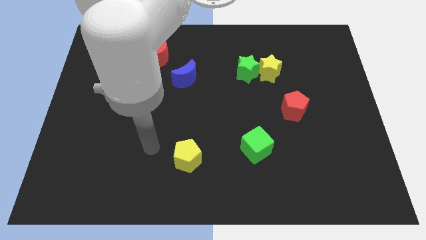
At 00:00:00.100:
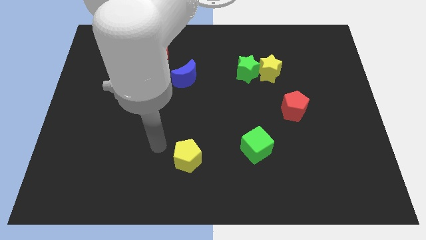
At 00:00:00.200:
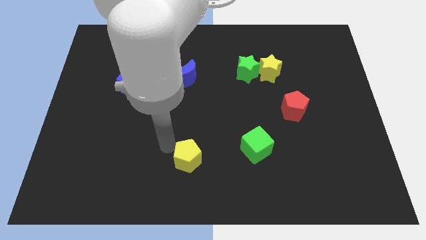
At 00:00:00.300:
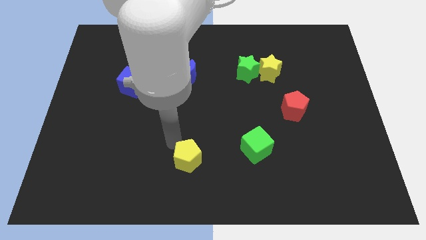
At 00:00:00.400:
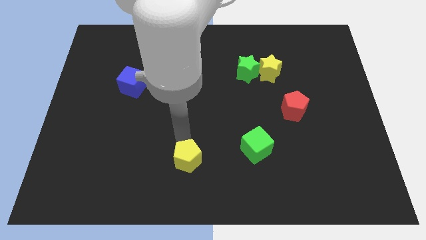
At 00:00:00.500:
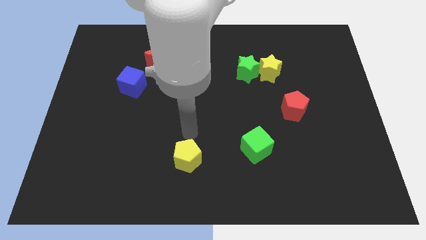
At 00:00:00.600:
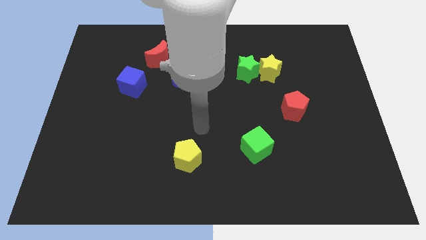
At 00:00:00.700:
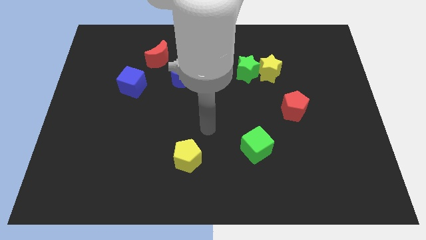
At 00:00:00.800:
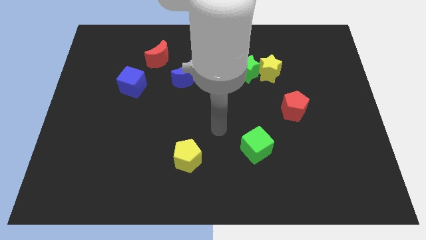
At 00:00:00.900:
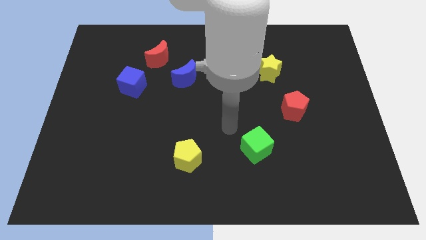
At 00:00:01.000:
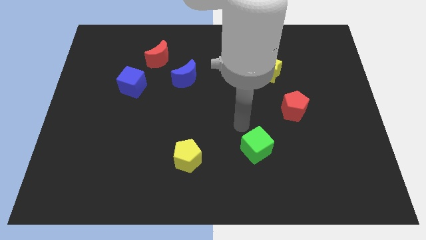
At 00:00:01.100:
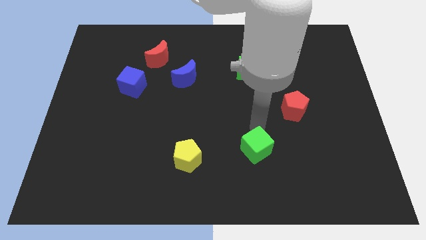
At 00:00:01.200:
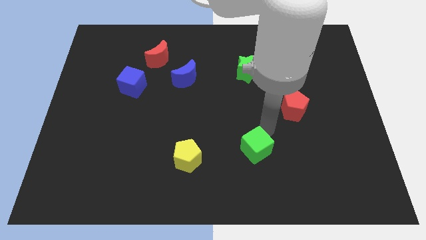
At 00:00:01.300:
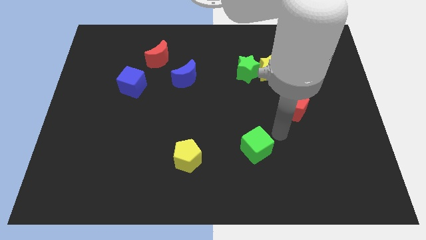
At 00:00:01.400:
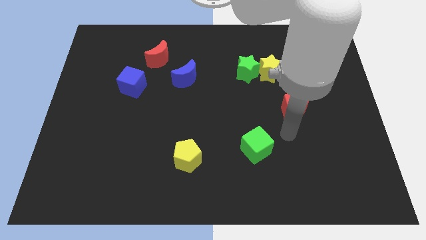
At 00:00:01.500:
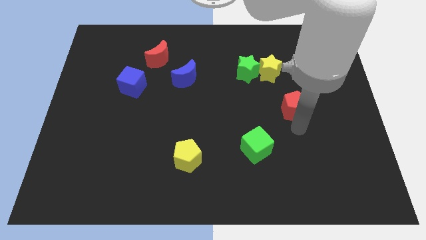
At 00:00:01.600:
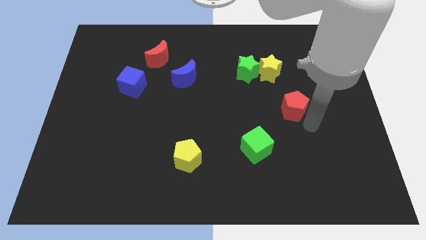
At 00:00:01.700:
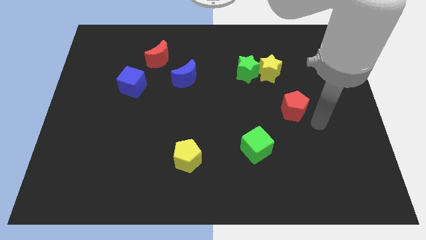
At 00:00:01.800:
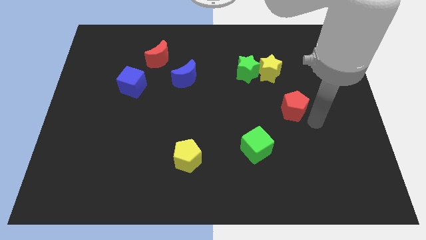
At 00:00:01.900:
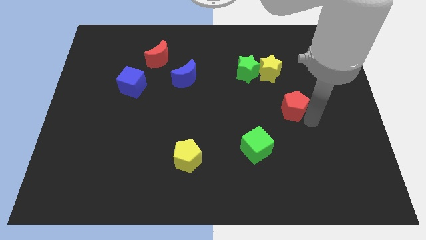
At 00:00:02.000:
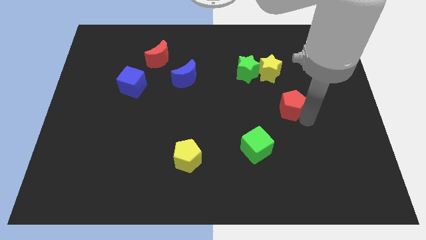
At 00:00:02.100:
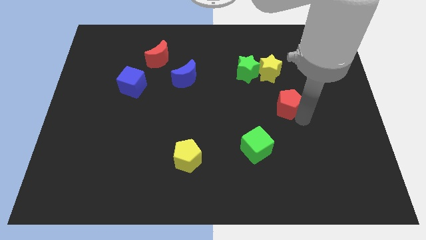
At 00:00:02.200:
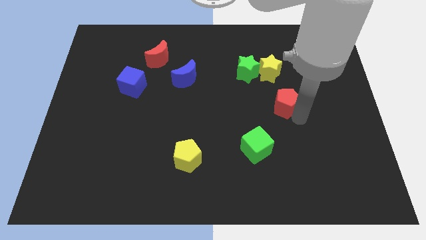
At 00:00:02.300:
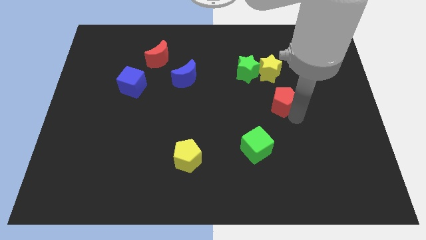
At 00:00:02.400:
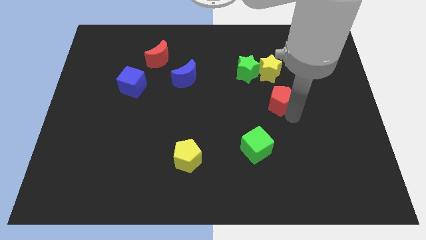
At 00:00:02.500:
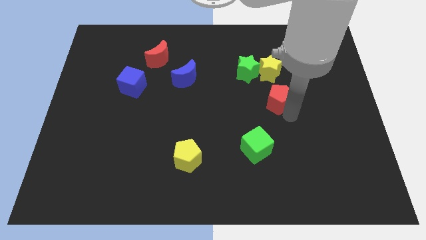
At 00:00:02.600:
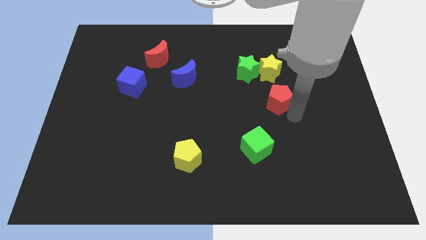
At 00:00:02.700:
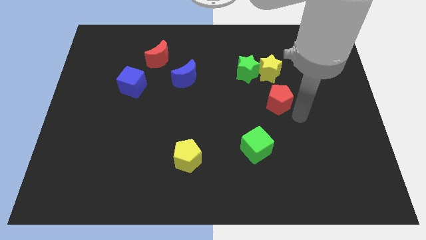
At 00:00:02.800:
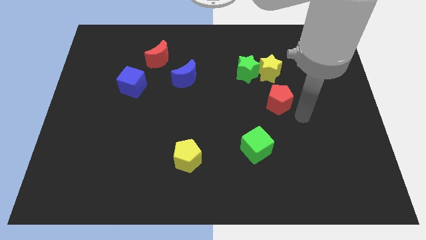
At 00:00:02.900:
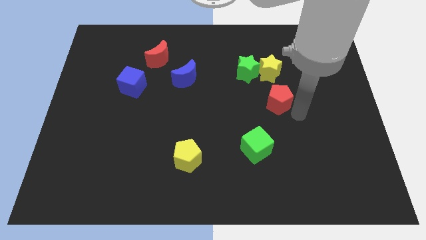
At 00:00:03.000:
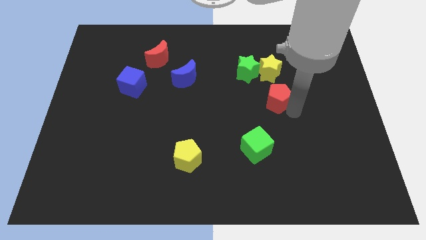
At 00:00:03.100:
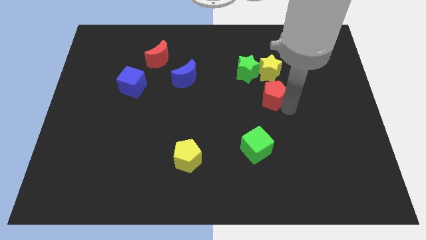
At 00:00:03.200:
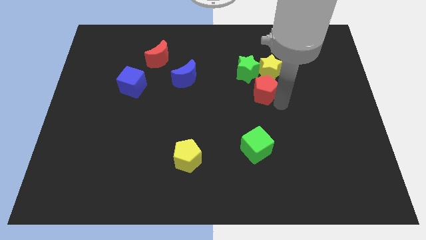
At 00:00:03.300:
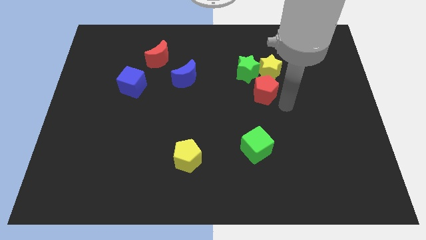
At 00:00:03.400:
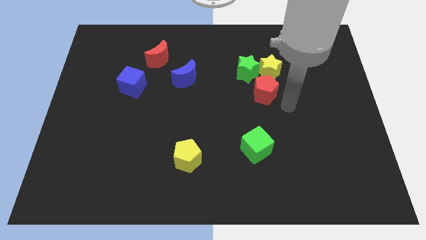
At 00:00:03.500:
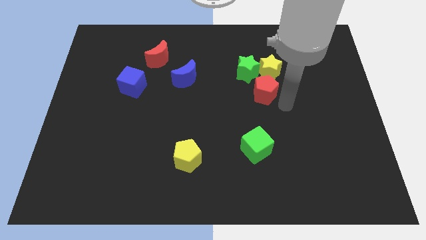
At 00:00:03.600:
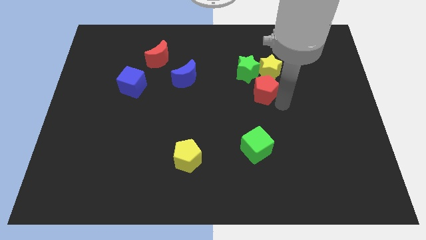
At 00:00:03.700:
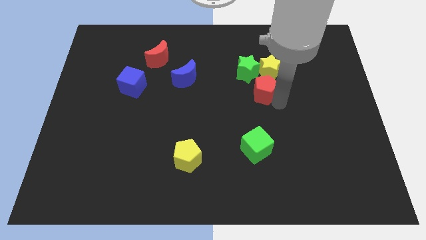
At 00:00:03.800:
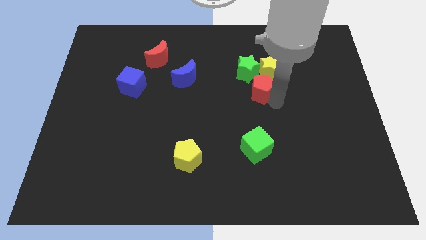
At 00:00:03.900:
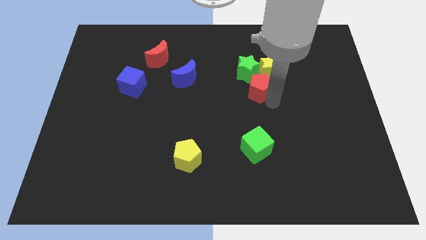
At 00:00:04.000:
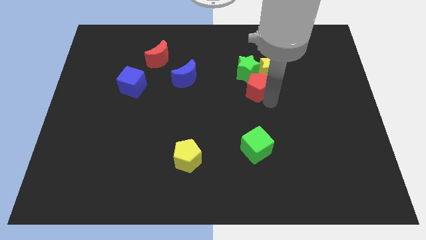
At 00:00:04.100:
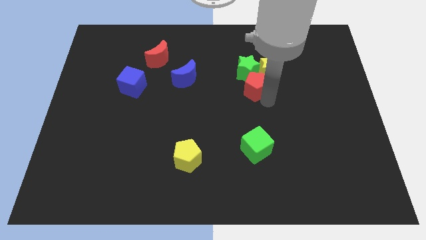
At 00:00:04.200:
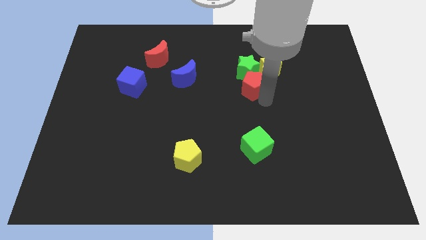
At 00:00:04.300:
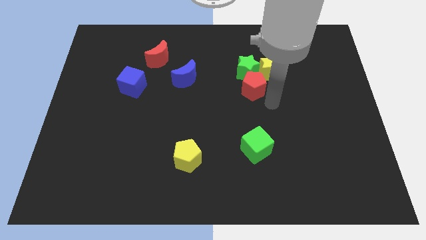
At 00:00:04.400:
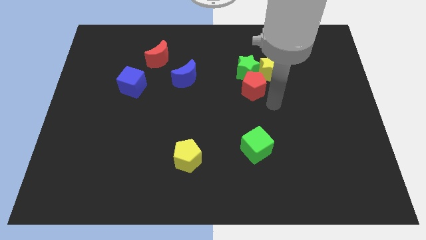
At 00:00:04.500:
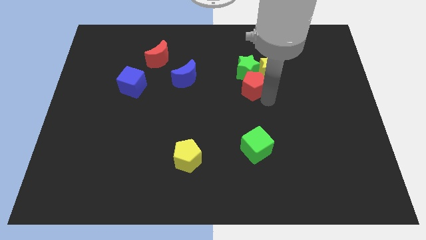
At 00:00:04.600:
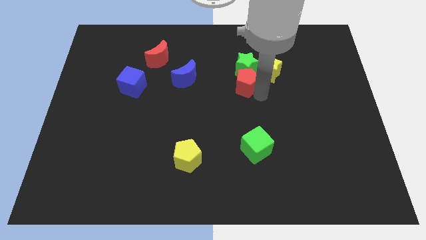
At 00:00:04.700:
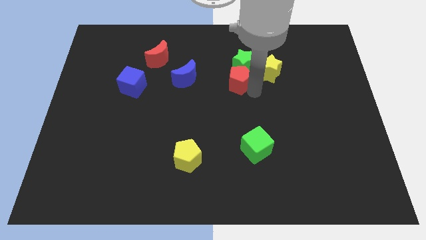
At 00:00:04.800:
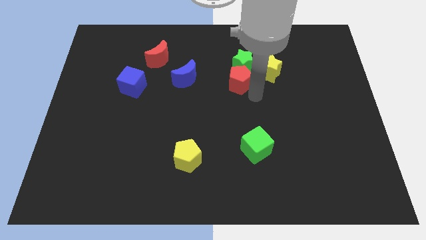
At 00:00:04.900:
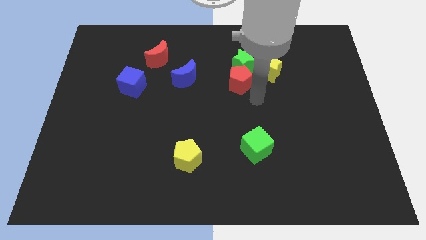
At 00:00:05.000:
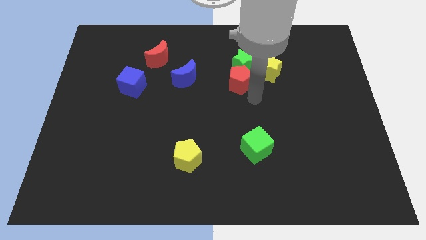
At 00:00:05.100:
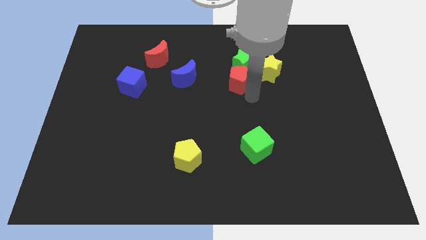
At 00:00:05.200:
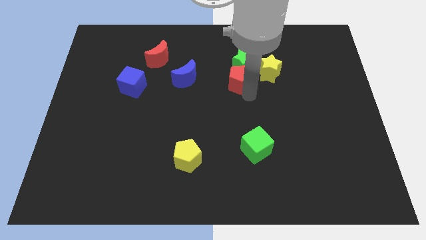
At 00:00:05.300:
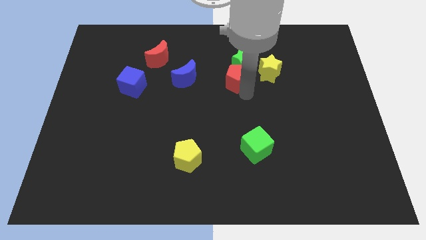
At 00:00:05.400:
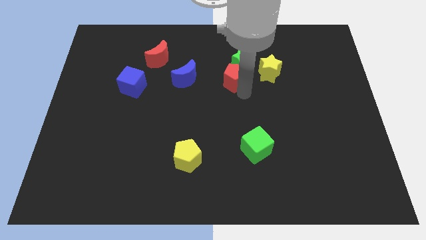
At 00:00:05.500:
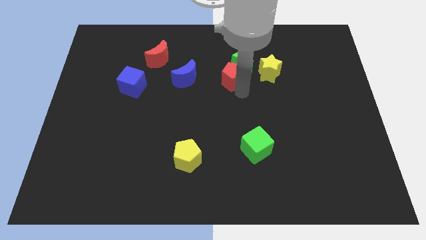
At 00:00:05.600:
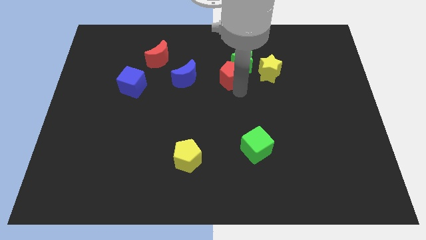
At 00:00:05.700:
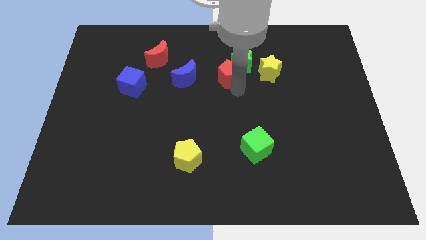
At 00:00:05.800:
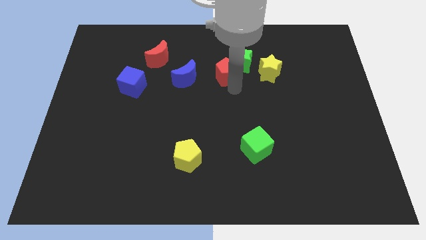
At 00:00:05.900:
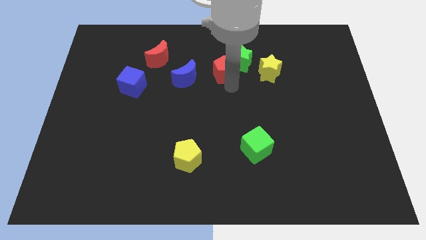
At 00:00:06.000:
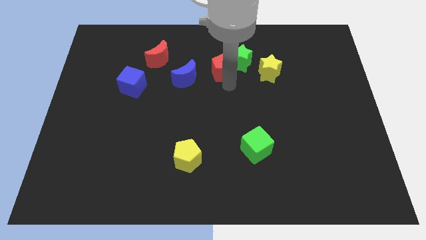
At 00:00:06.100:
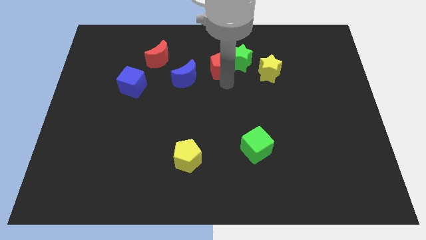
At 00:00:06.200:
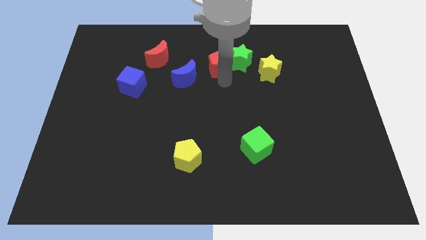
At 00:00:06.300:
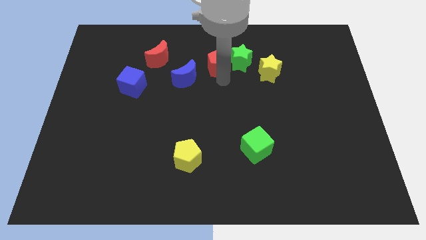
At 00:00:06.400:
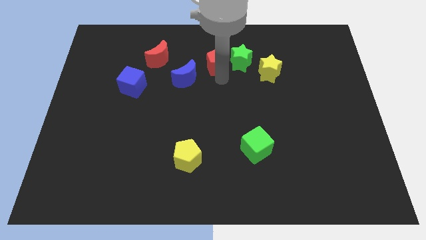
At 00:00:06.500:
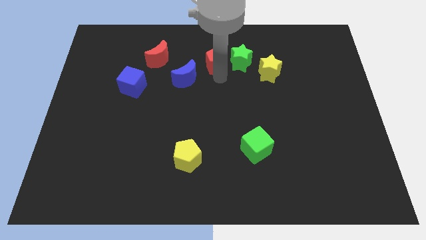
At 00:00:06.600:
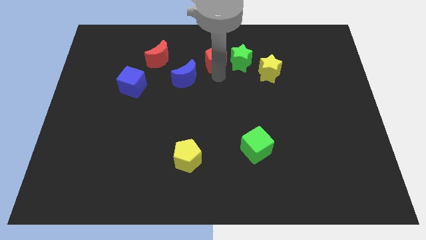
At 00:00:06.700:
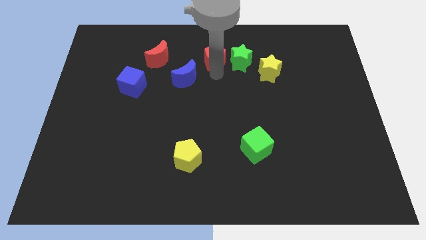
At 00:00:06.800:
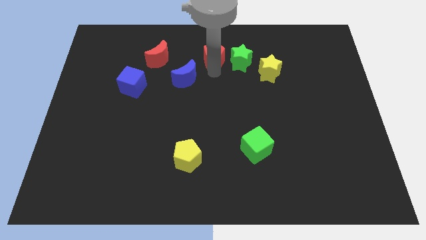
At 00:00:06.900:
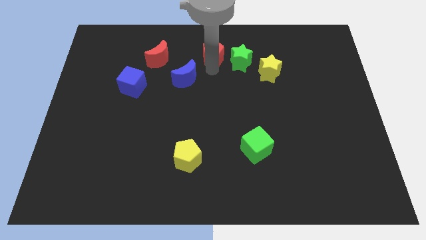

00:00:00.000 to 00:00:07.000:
put the red pentagon to the top side
